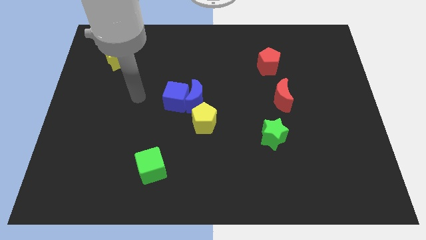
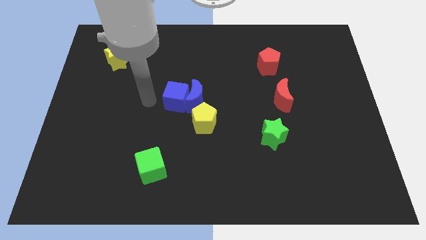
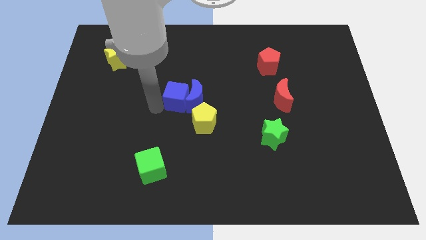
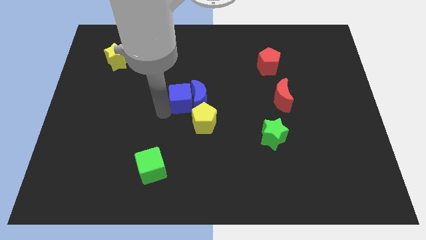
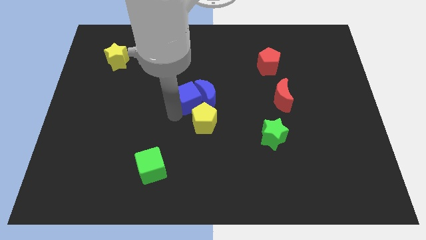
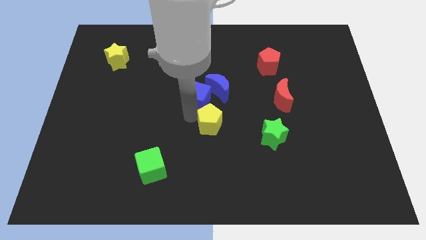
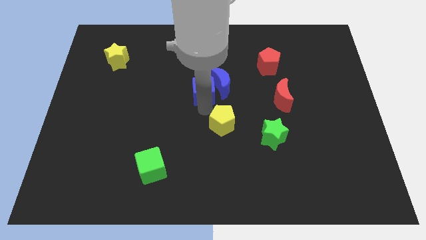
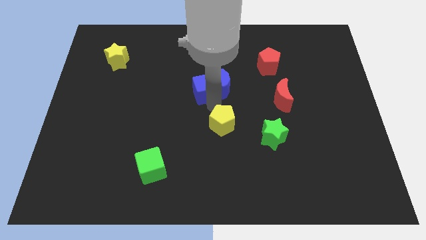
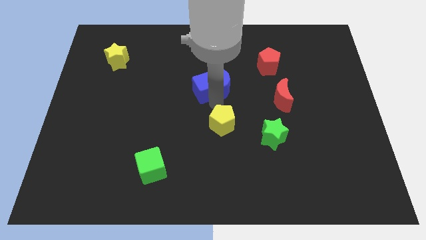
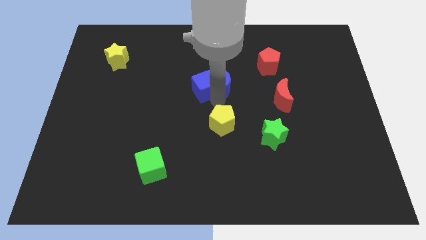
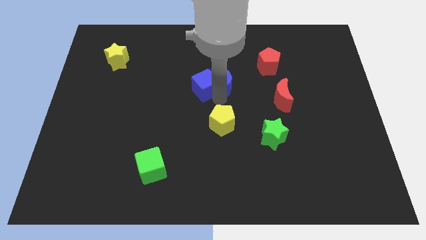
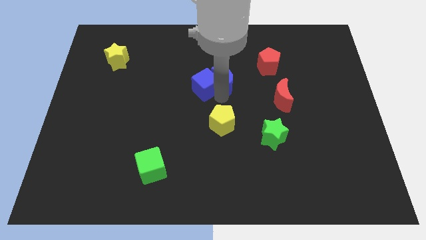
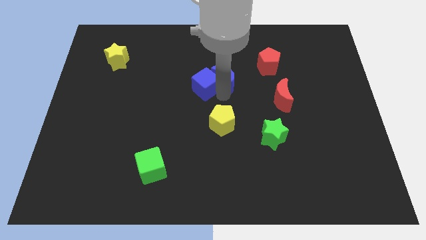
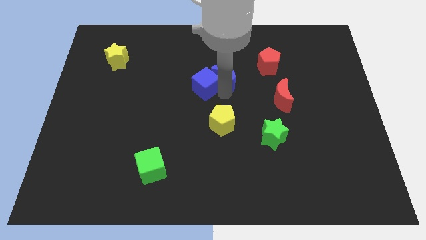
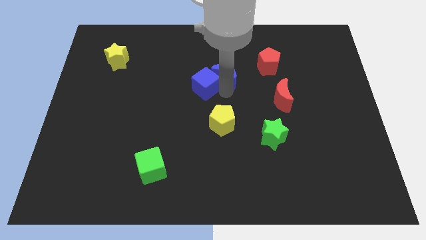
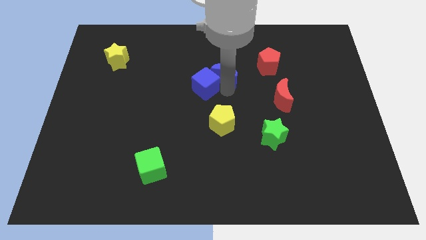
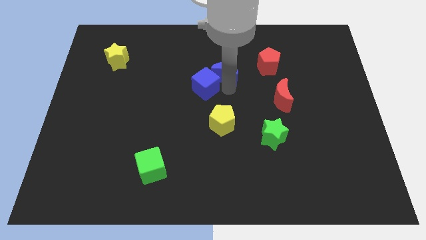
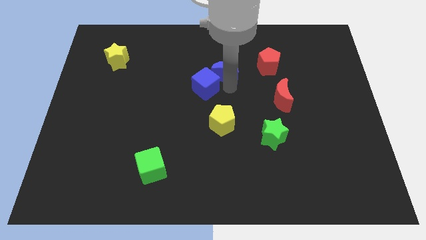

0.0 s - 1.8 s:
pull the blue moon apart from the blue cube and yellow pentagon

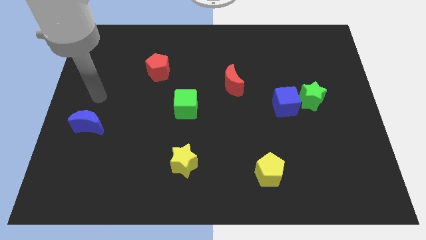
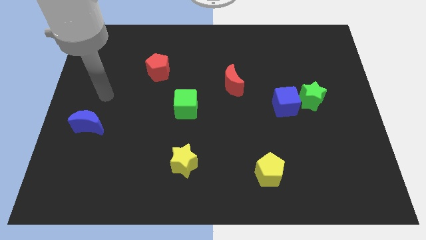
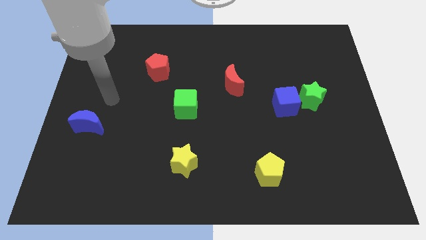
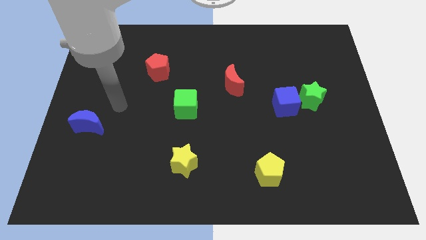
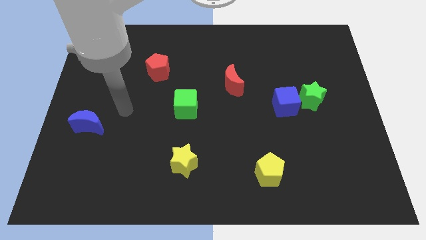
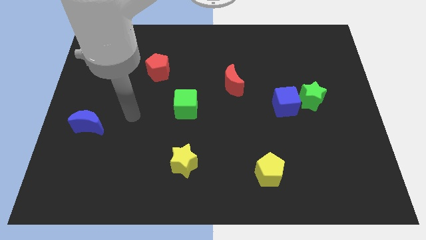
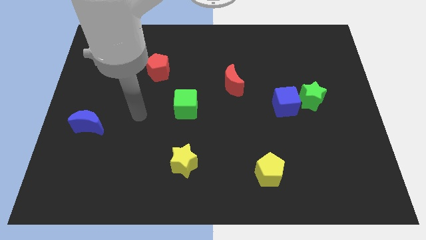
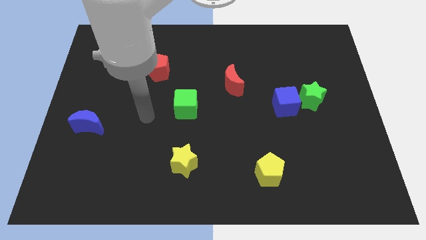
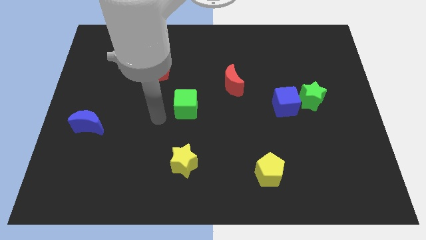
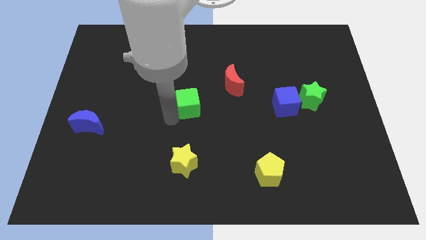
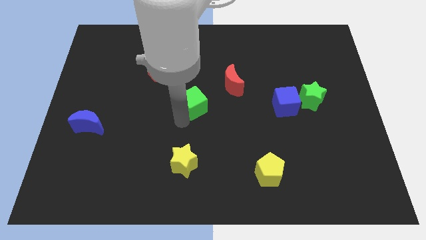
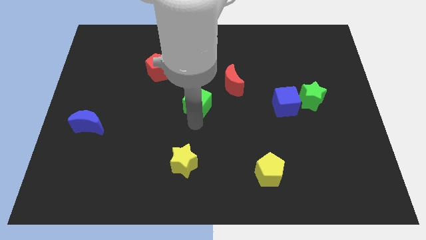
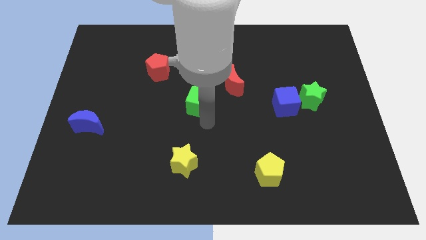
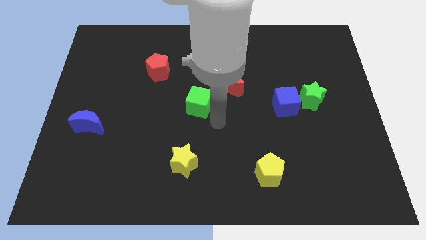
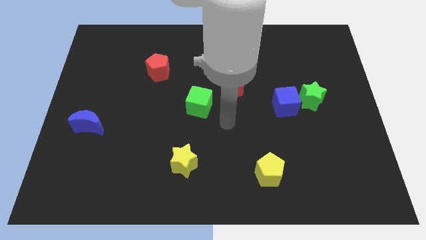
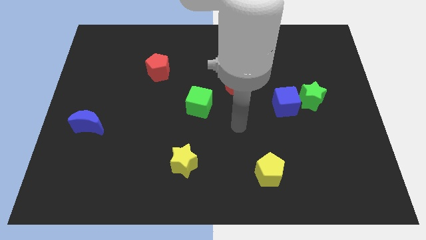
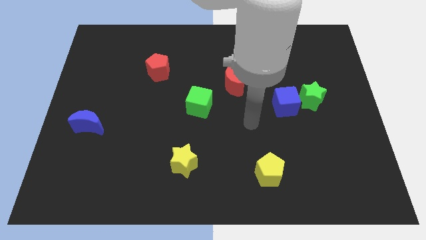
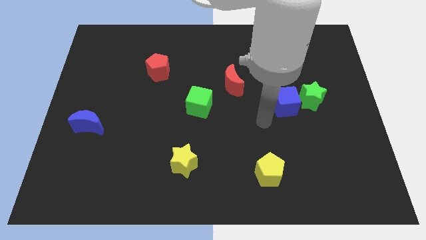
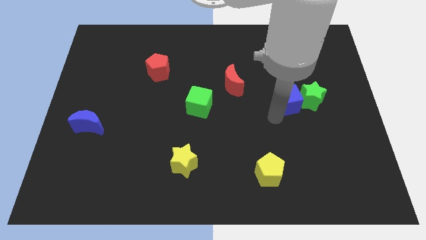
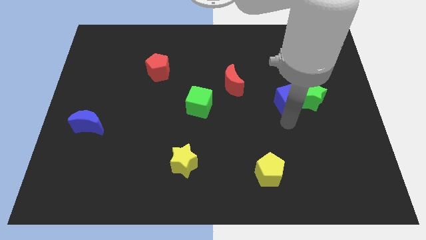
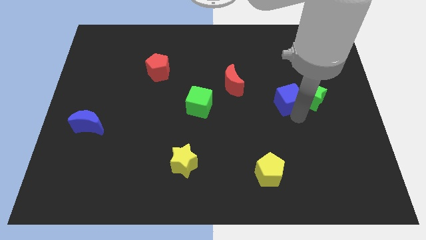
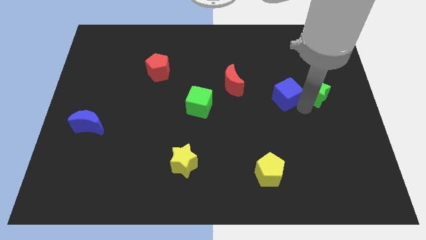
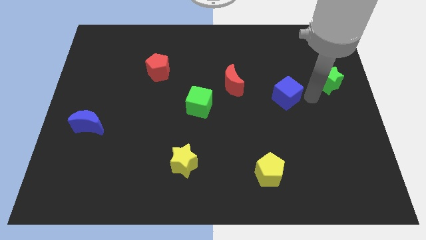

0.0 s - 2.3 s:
pull the blue cube apart from the green star

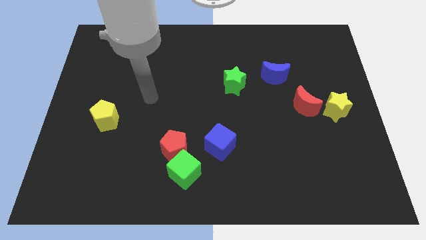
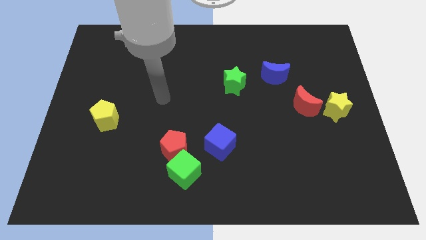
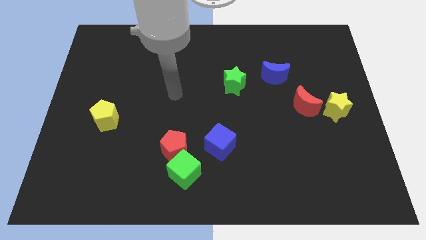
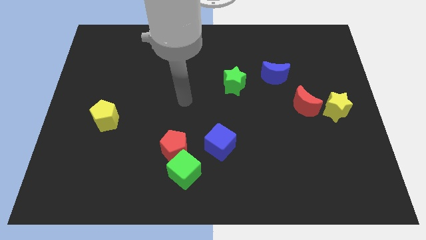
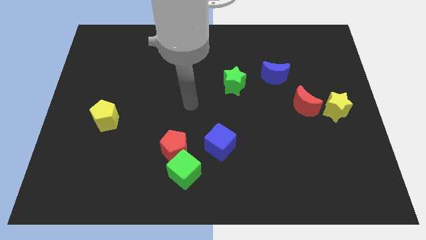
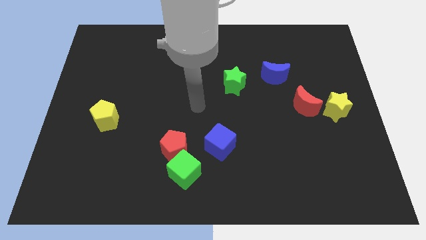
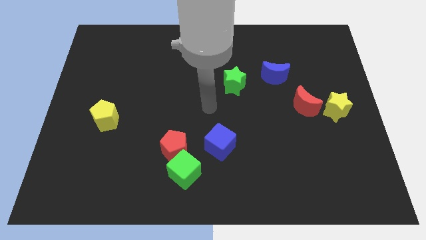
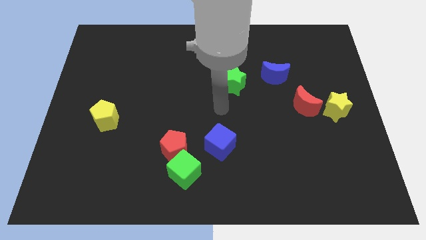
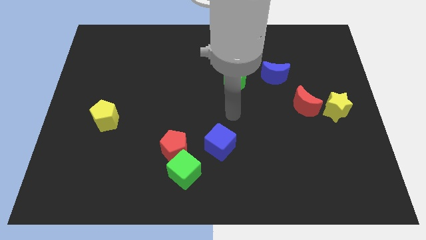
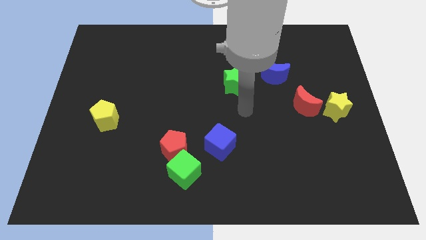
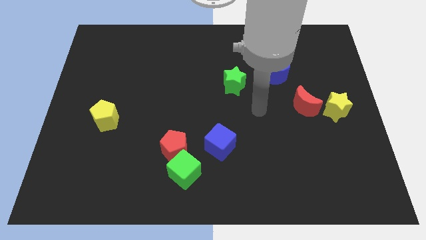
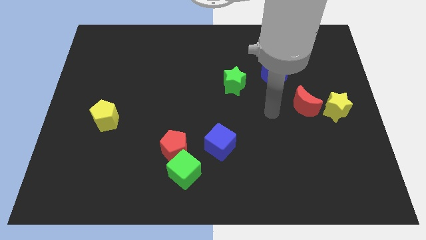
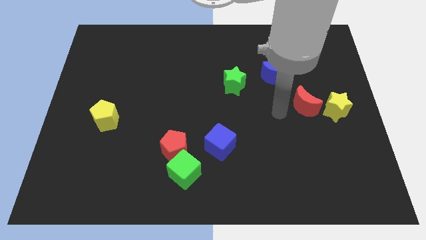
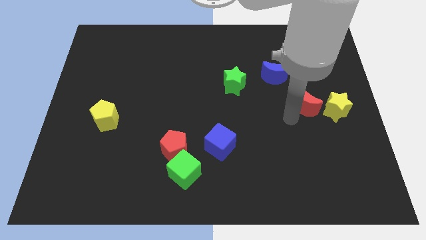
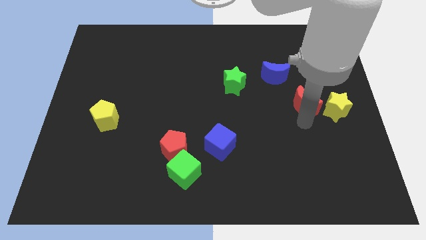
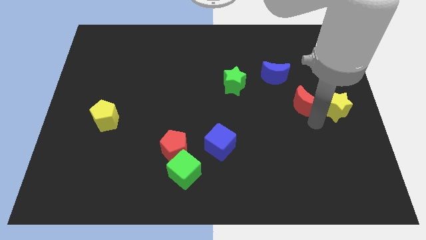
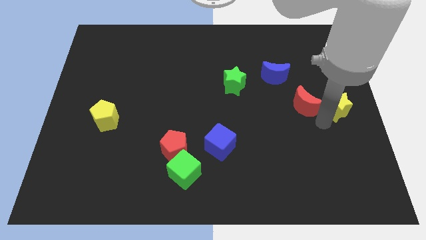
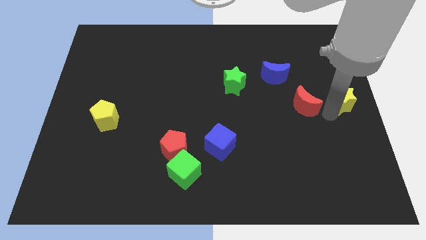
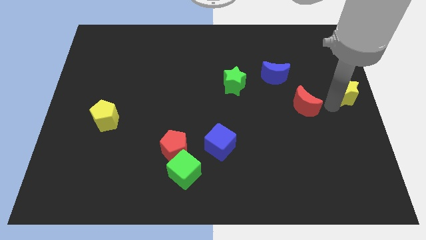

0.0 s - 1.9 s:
move the red moon away from the yellow star

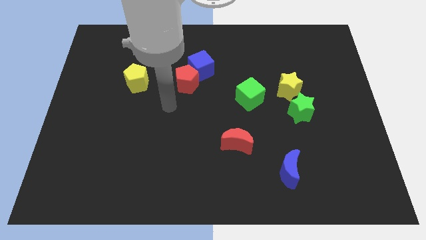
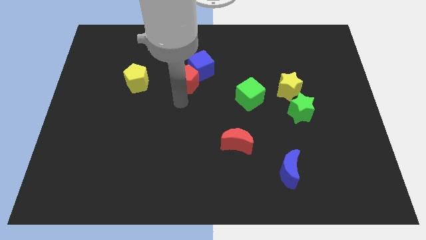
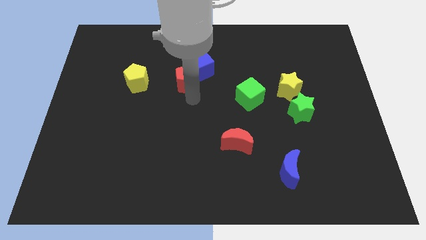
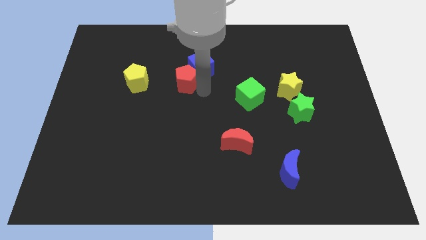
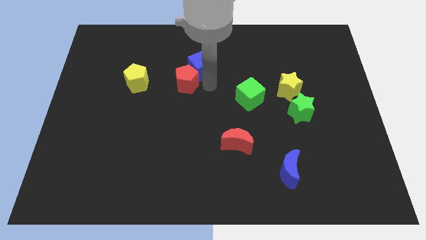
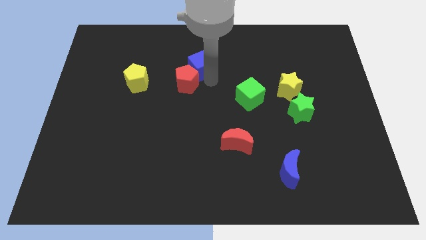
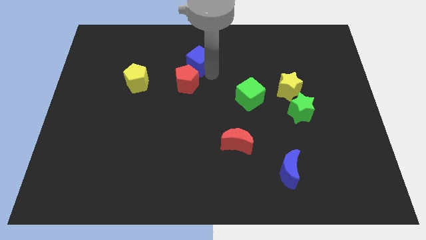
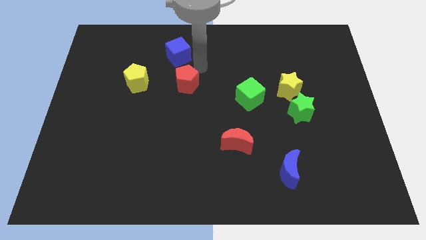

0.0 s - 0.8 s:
move the red pentagon away from the blue cube

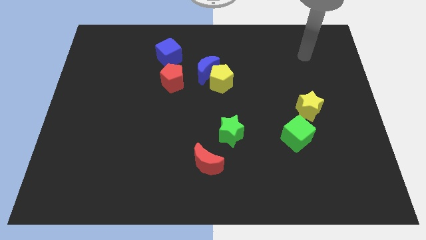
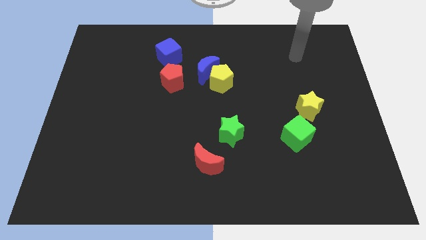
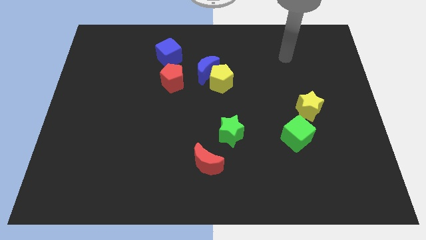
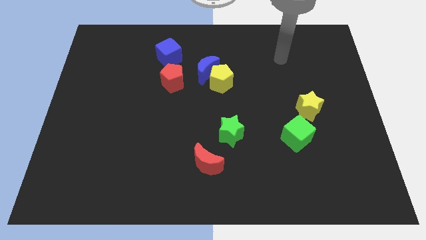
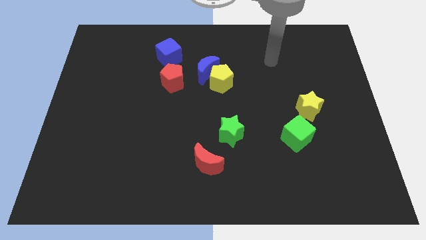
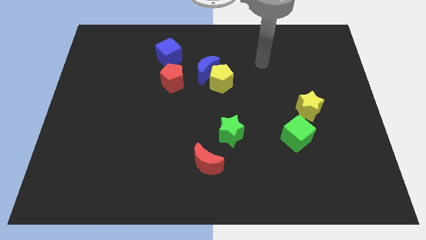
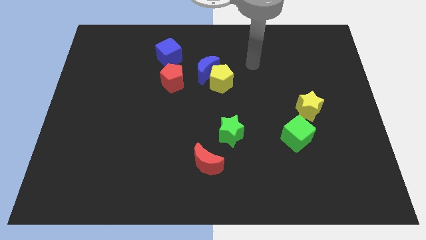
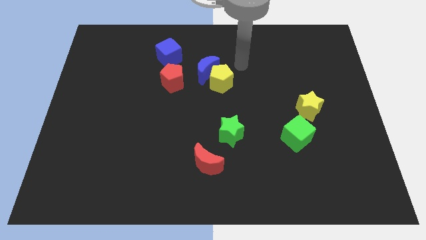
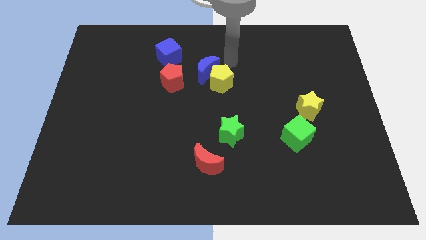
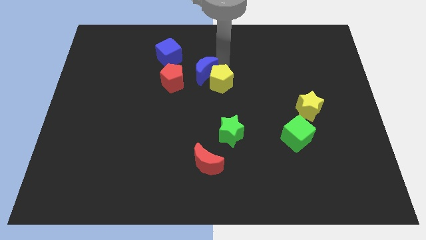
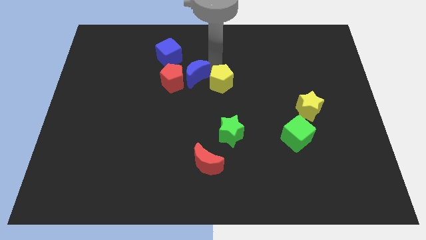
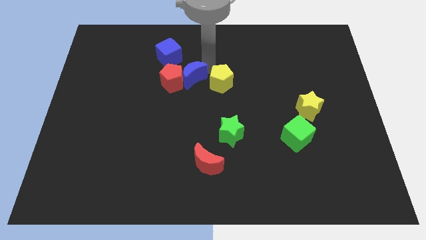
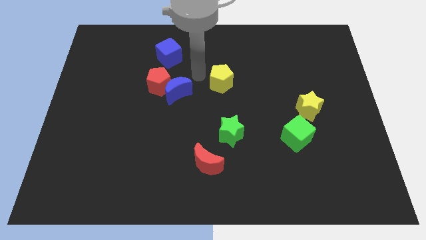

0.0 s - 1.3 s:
move the yellow pentagon away from the blue moon

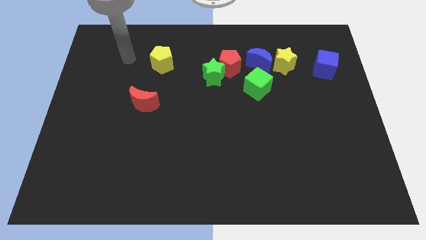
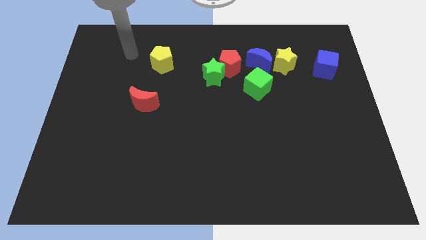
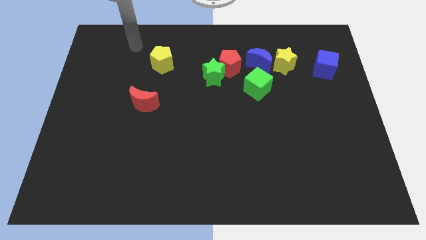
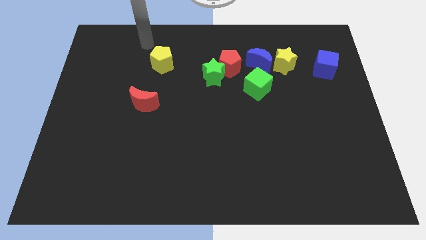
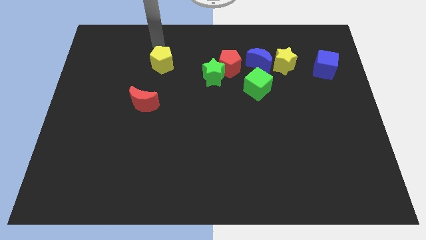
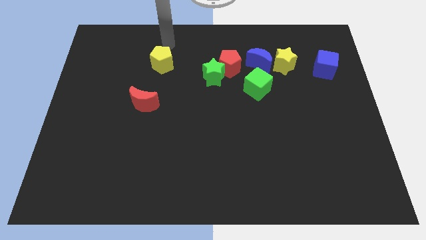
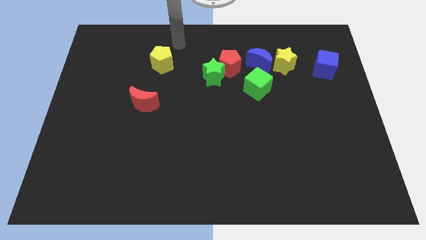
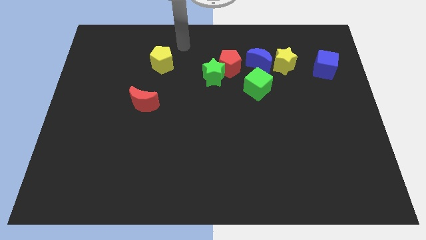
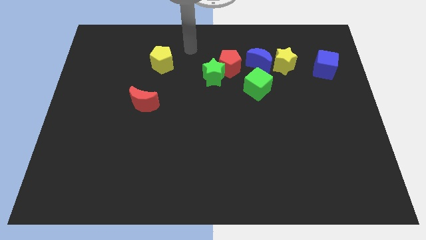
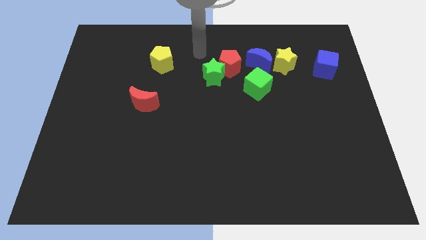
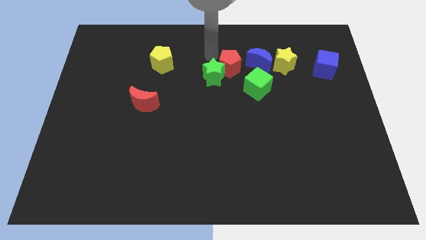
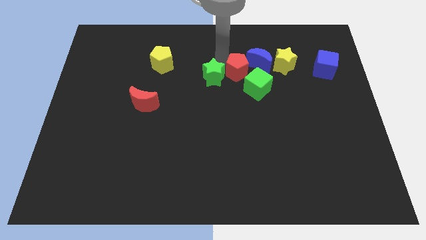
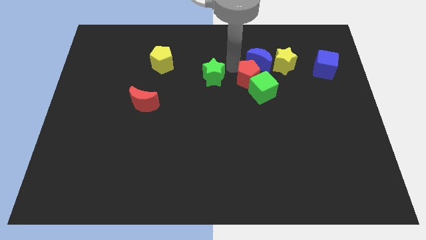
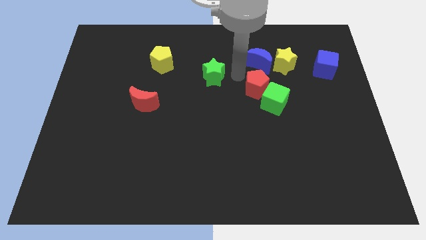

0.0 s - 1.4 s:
separate the green star from the red pentagon
